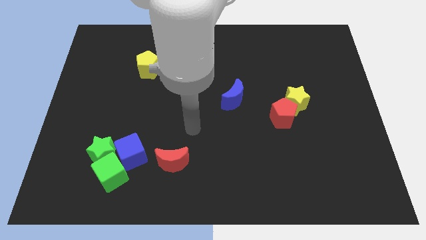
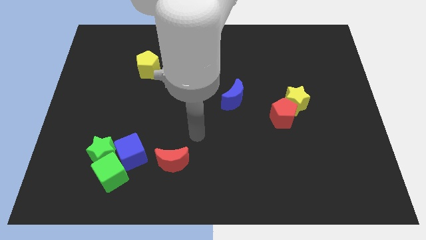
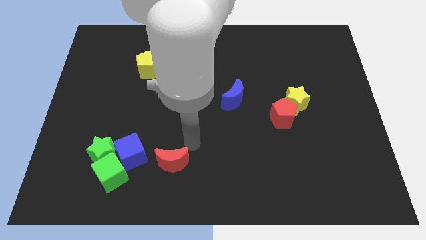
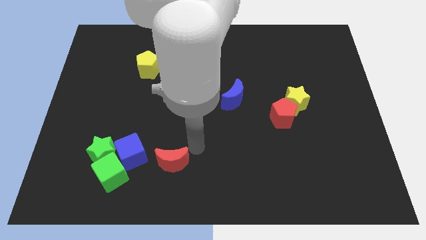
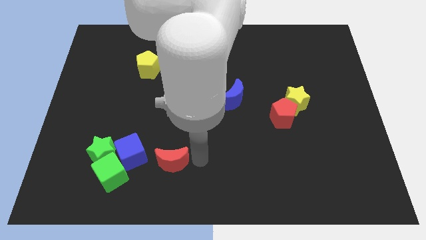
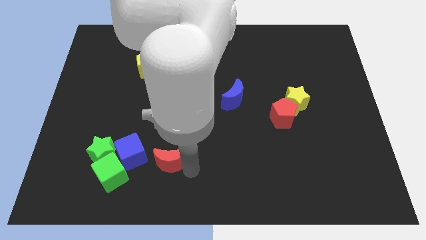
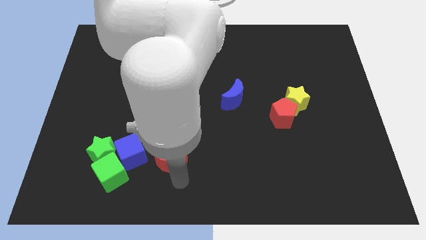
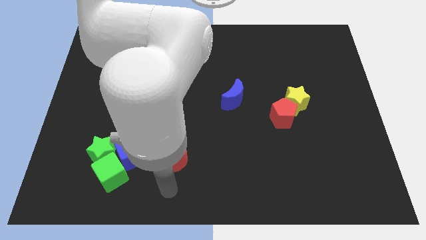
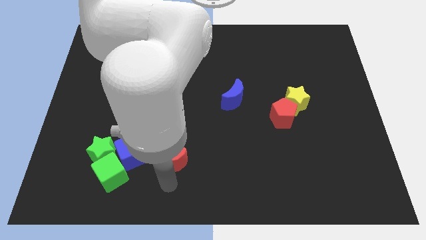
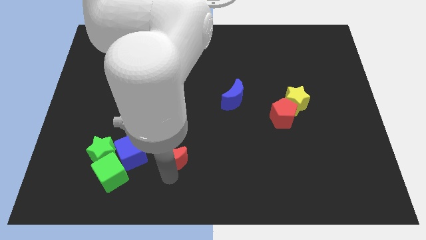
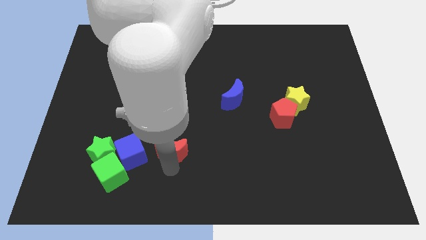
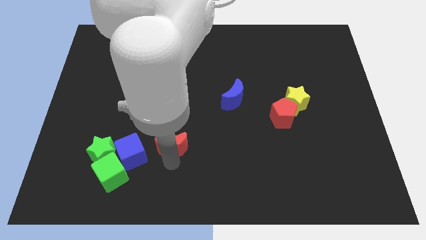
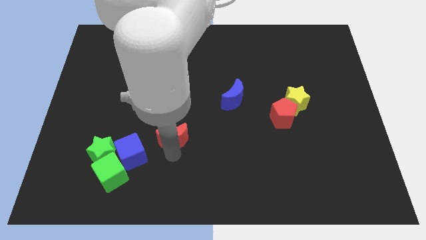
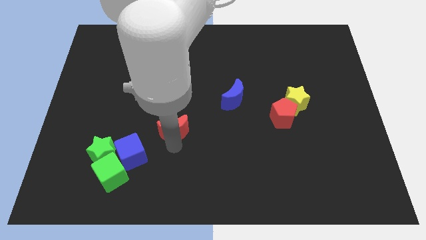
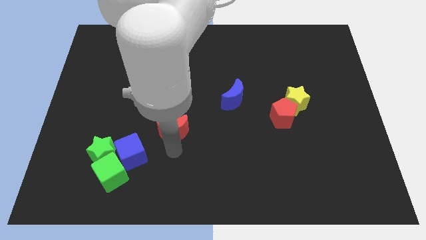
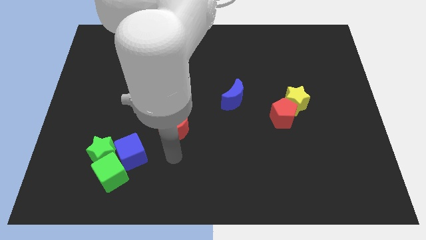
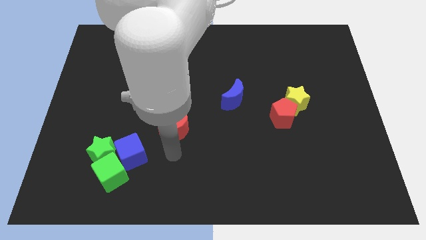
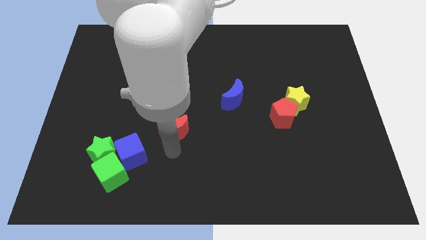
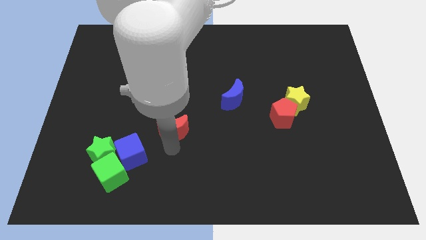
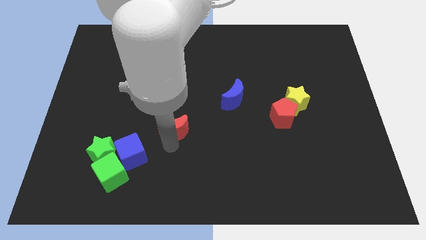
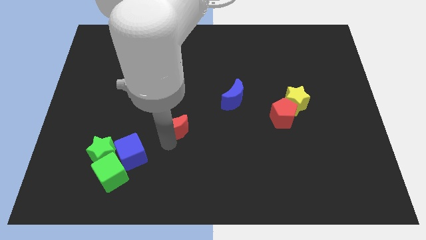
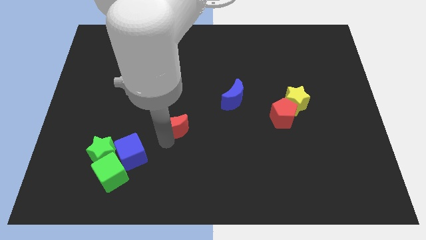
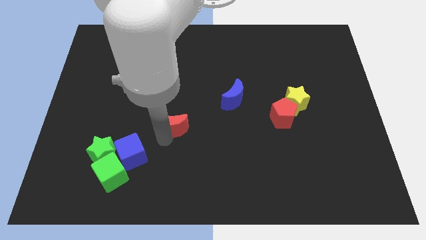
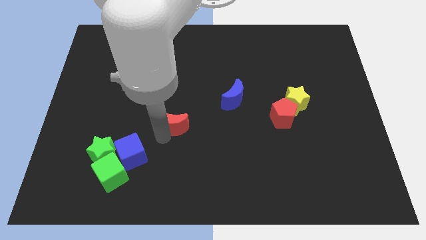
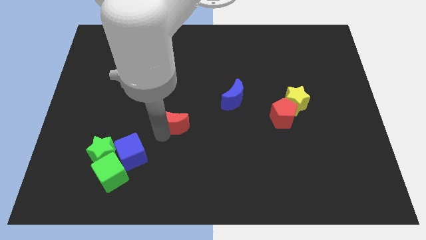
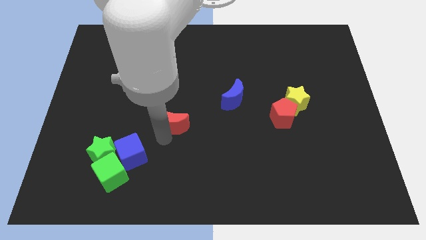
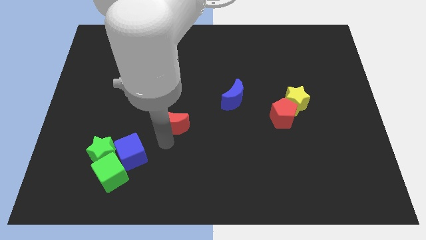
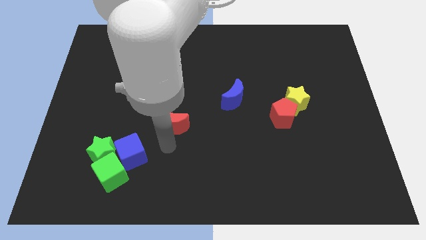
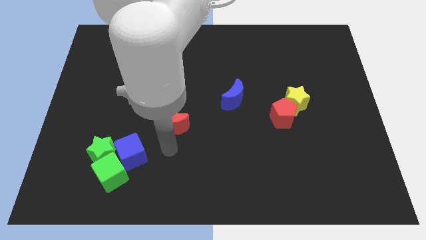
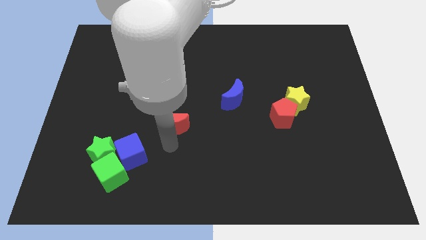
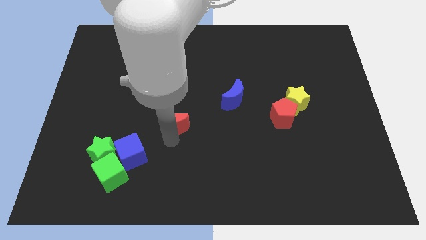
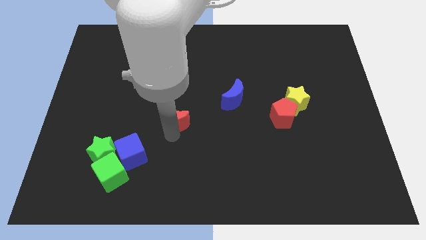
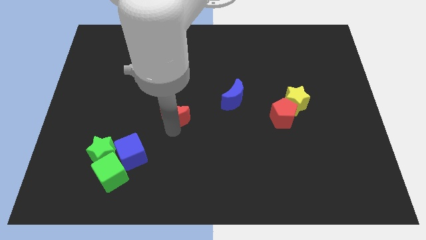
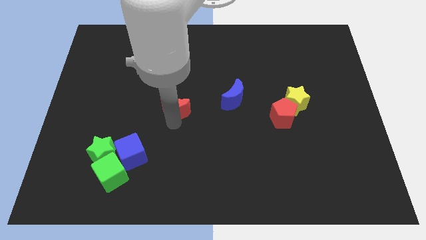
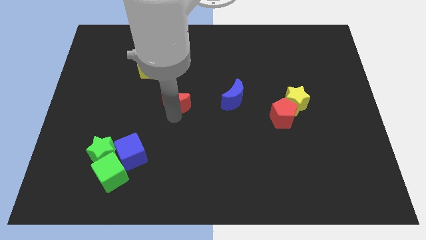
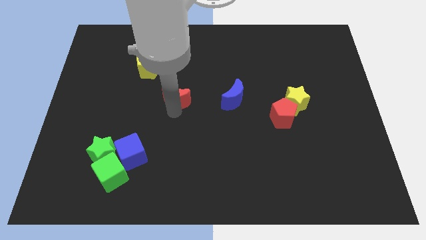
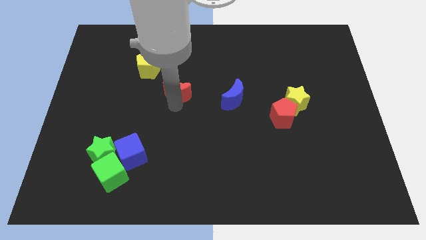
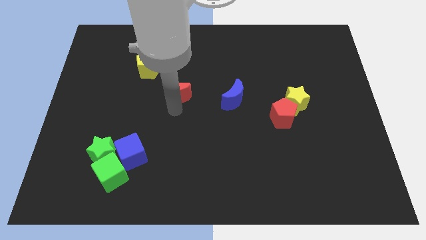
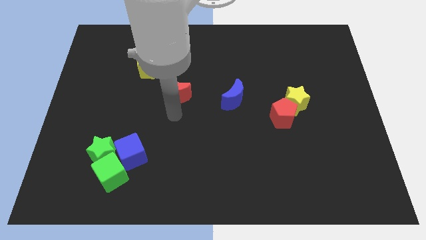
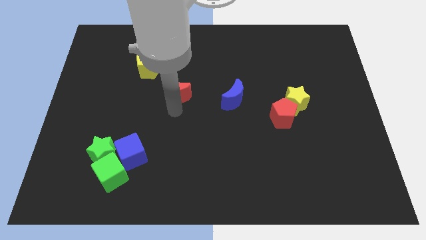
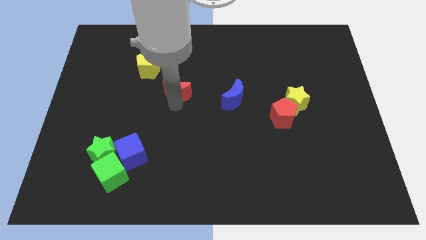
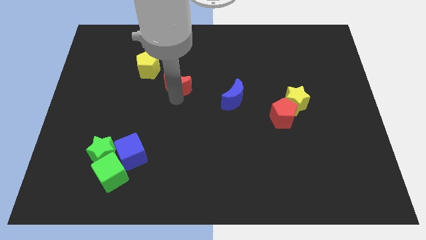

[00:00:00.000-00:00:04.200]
push the red moon upwards

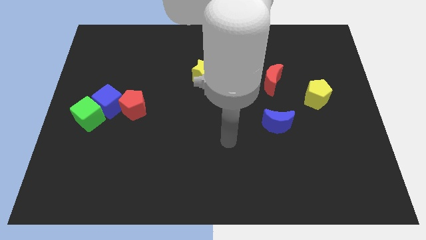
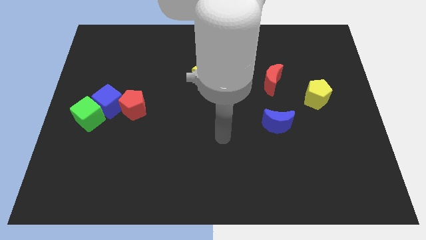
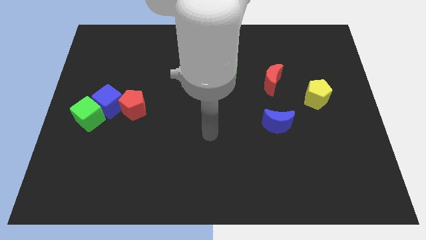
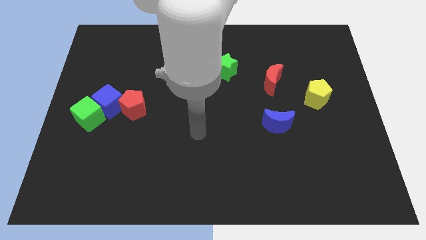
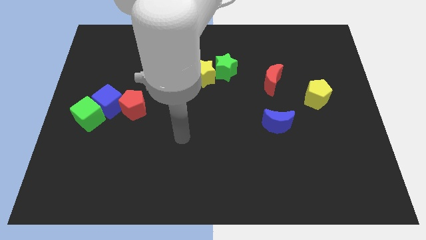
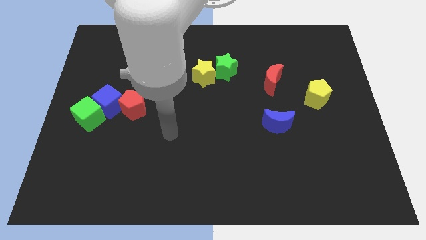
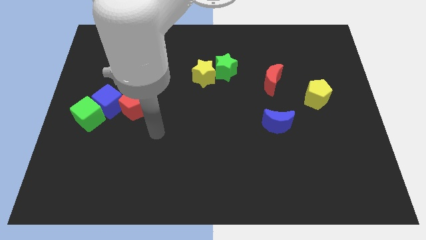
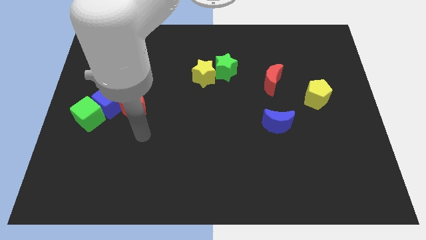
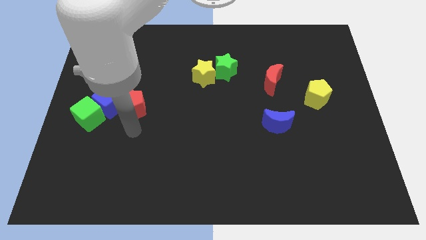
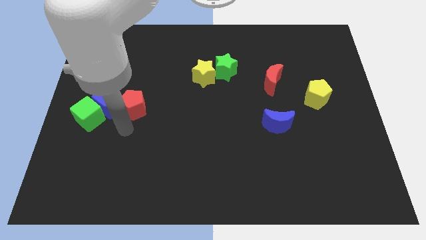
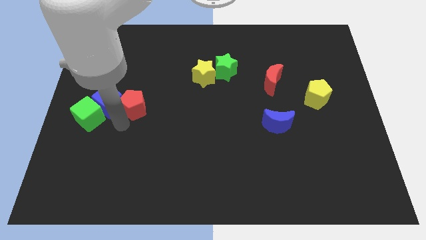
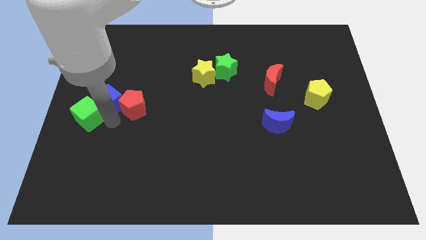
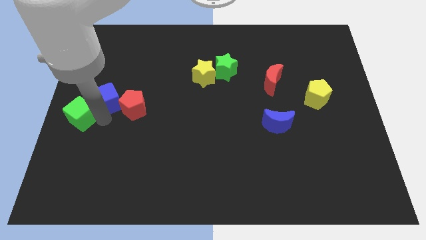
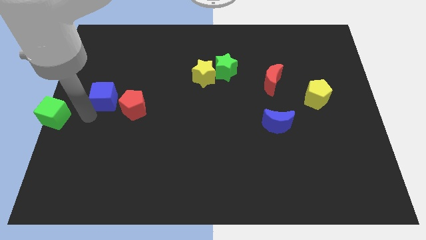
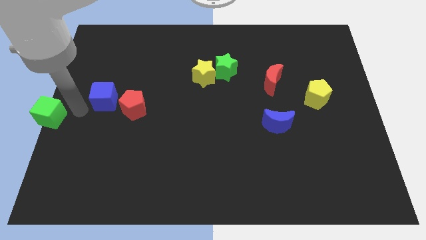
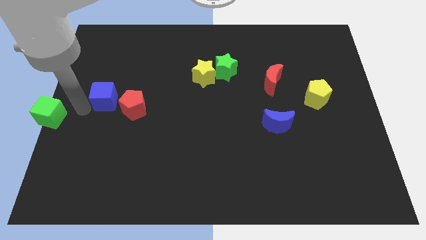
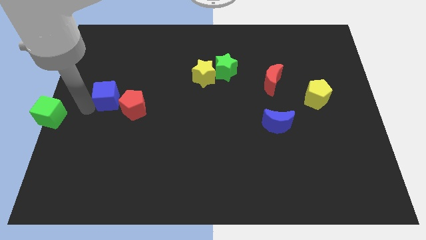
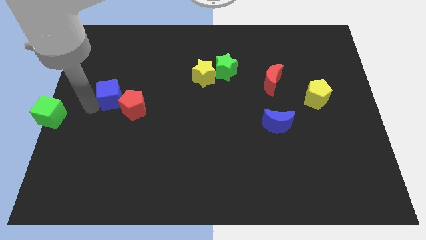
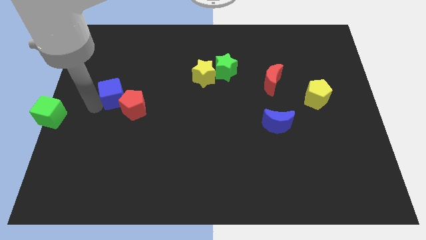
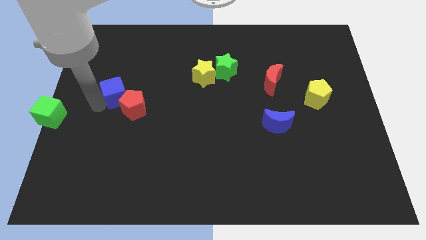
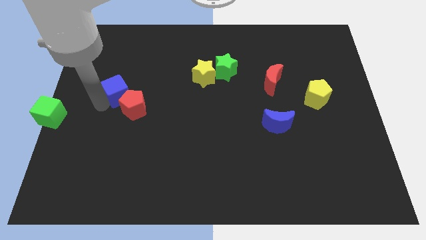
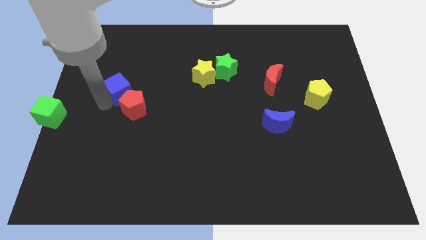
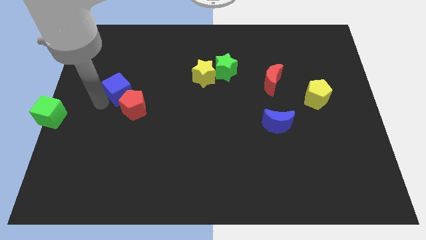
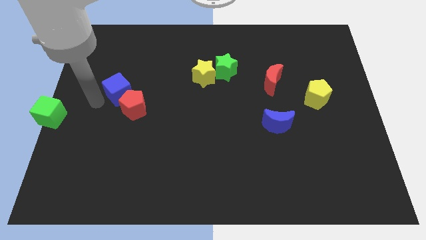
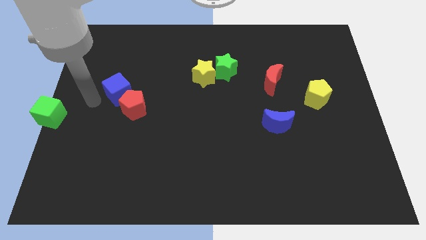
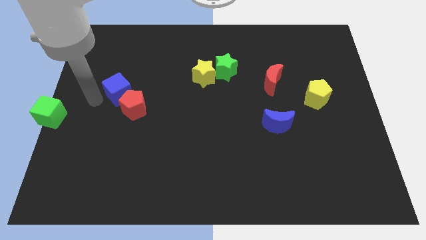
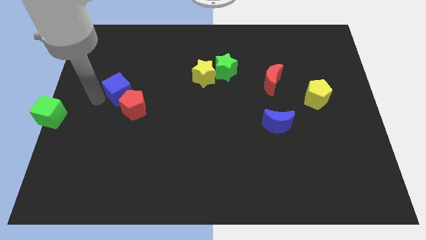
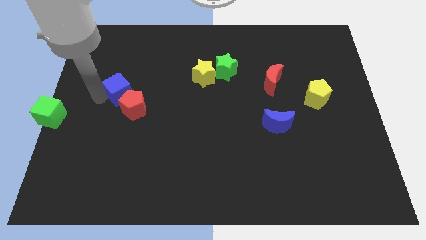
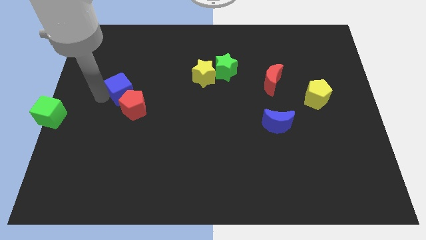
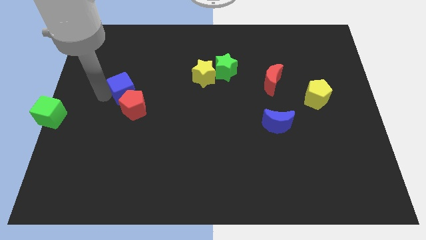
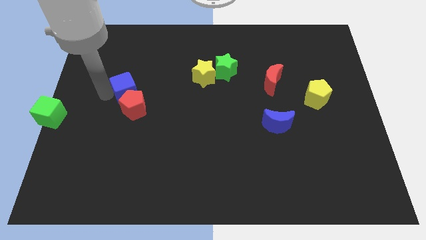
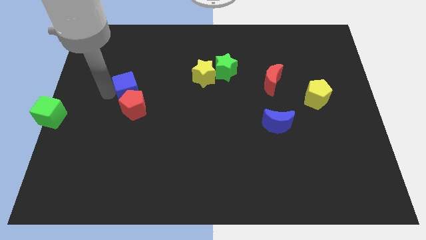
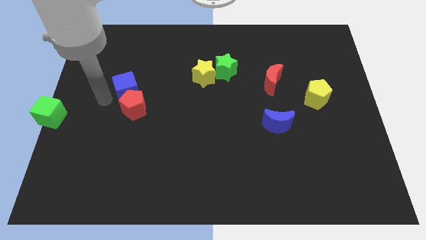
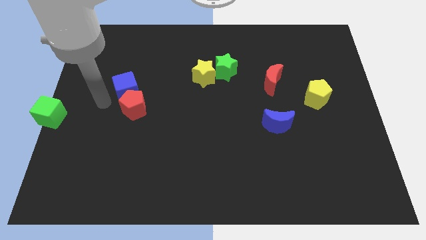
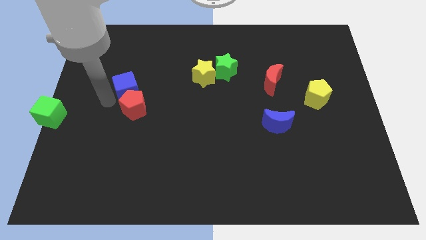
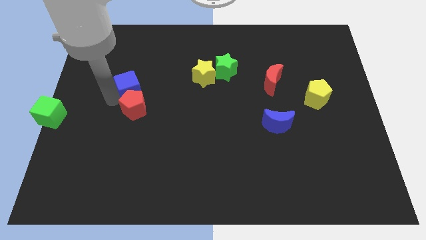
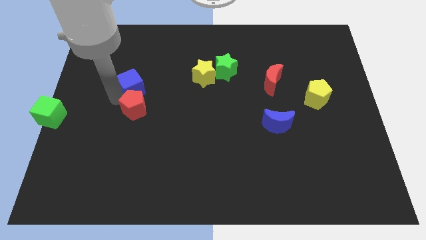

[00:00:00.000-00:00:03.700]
move the blue cube up and then right slightly
